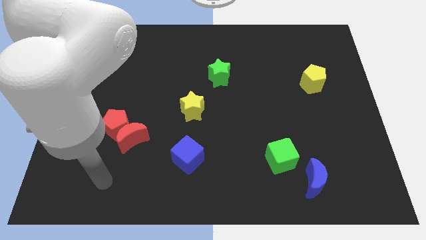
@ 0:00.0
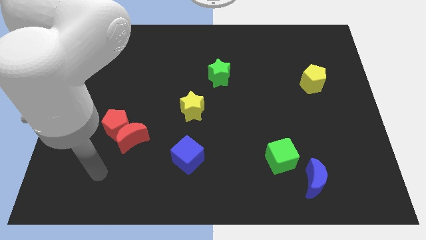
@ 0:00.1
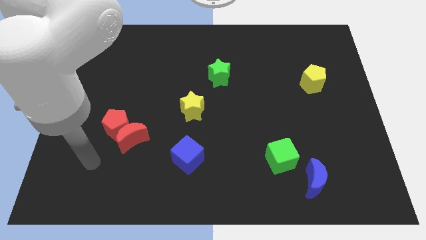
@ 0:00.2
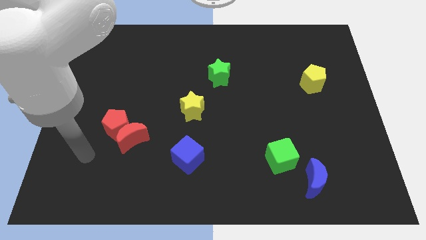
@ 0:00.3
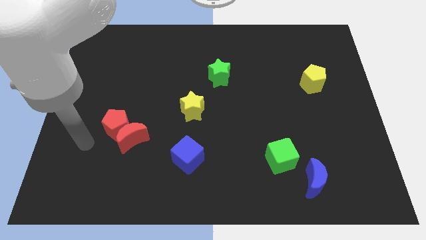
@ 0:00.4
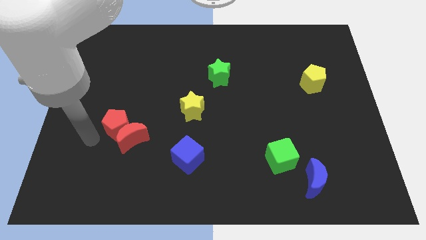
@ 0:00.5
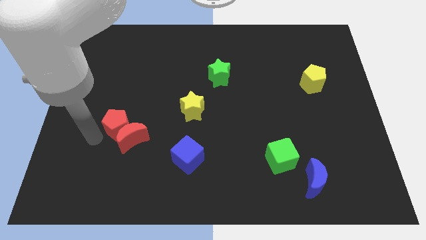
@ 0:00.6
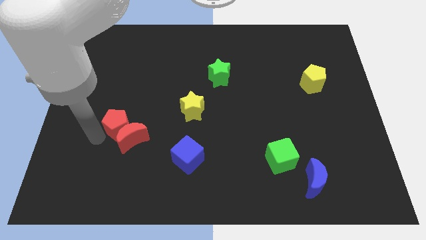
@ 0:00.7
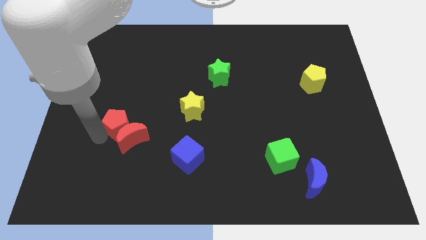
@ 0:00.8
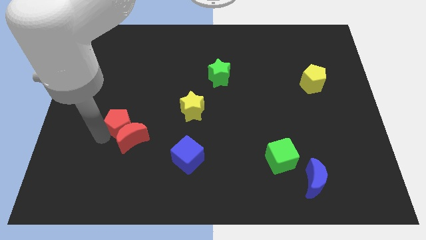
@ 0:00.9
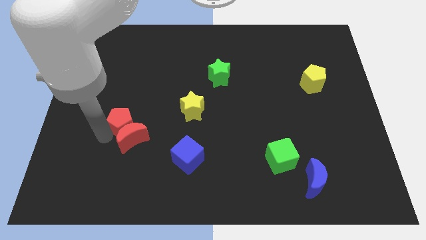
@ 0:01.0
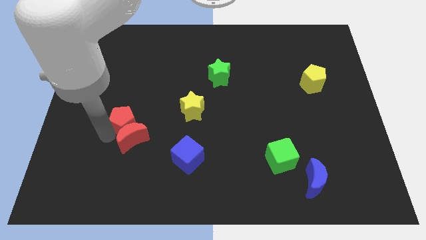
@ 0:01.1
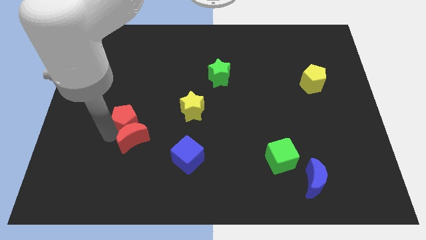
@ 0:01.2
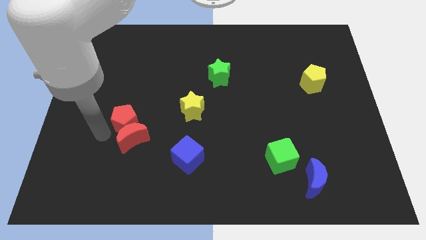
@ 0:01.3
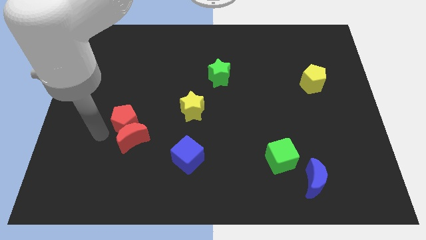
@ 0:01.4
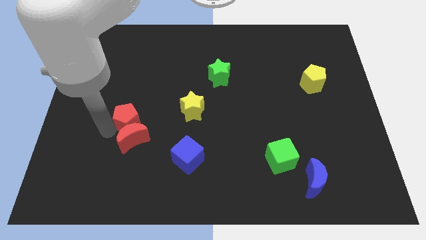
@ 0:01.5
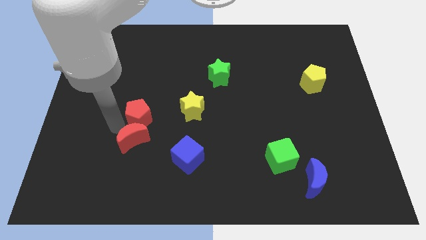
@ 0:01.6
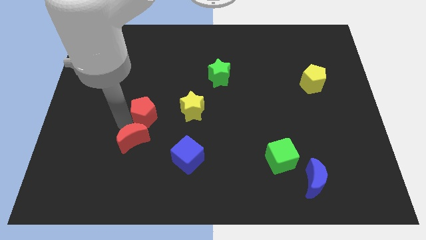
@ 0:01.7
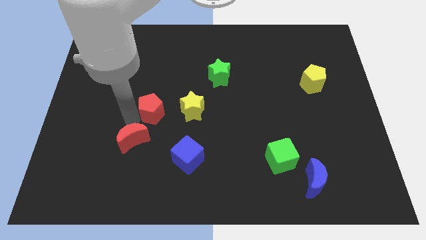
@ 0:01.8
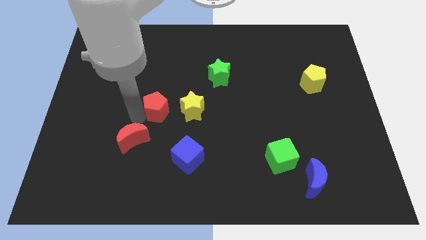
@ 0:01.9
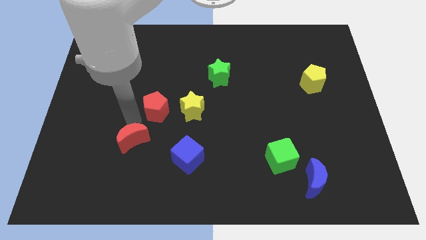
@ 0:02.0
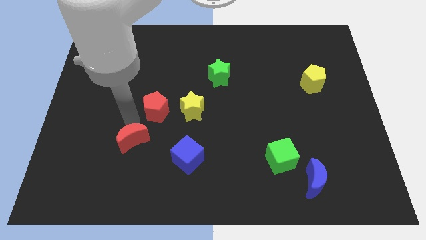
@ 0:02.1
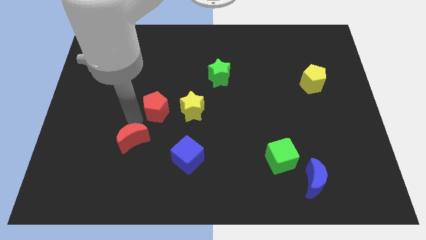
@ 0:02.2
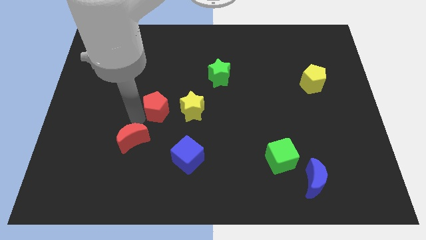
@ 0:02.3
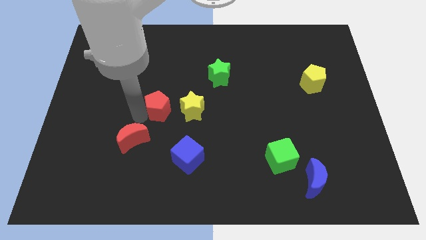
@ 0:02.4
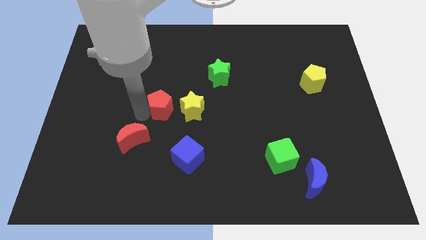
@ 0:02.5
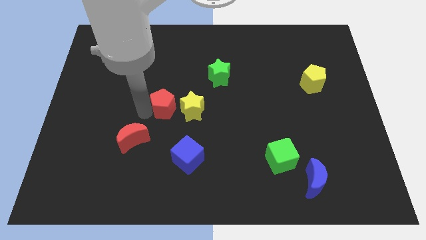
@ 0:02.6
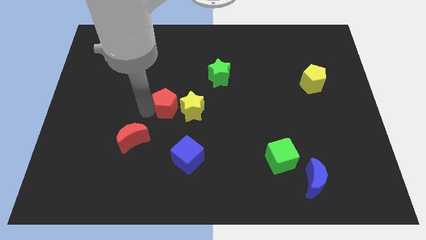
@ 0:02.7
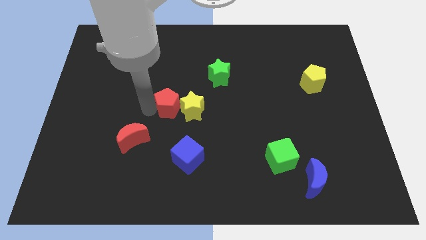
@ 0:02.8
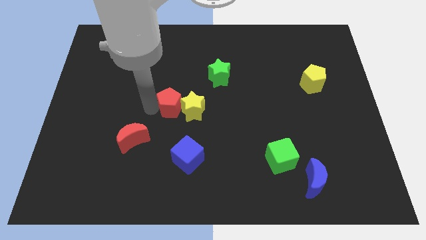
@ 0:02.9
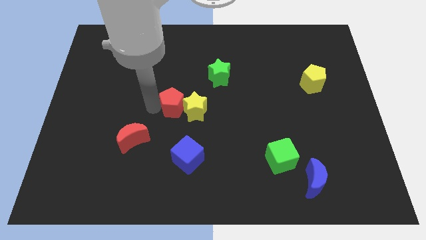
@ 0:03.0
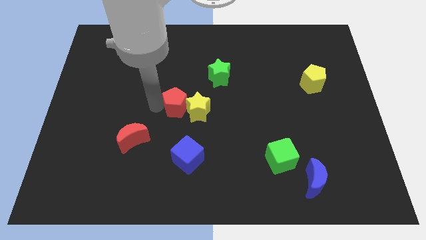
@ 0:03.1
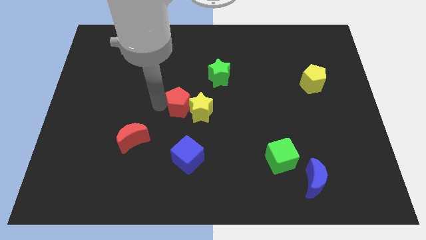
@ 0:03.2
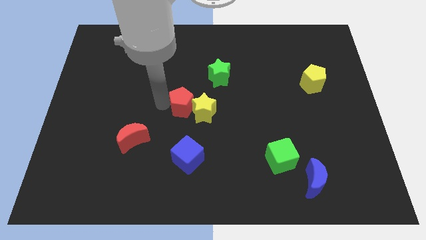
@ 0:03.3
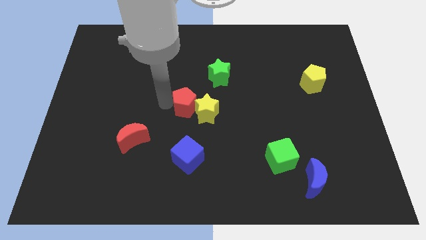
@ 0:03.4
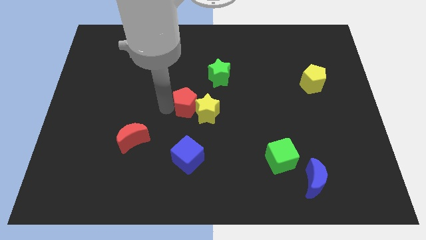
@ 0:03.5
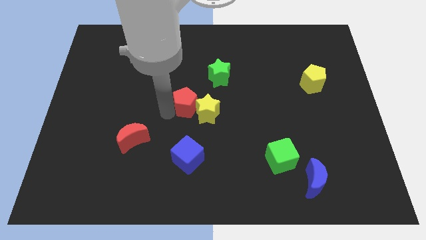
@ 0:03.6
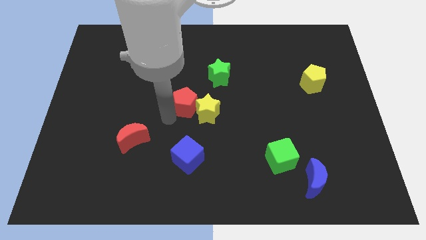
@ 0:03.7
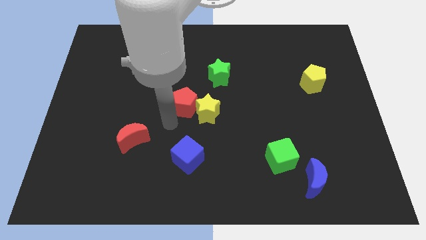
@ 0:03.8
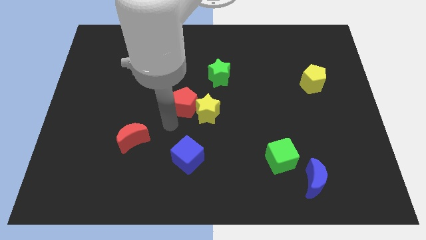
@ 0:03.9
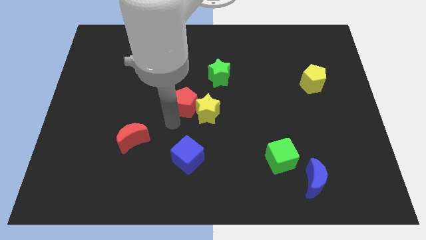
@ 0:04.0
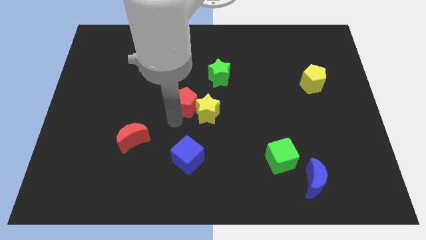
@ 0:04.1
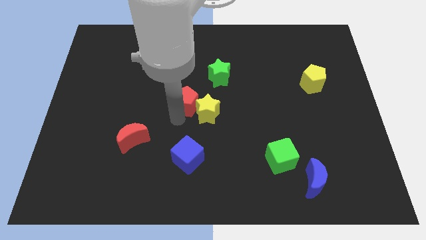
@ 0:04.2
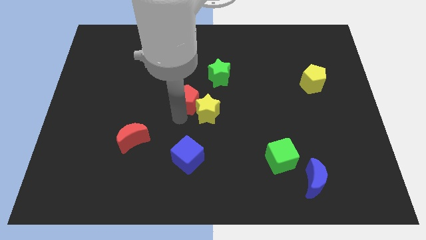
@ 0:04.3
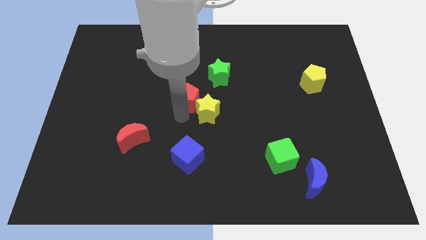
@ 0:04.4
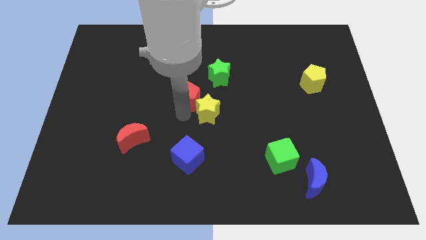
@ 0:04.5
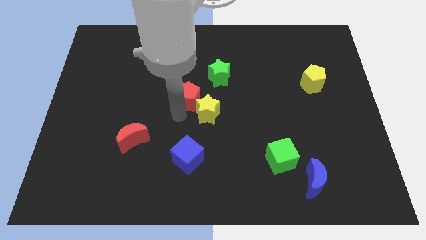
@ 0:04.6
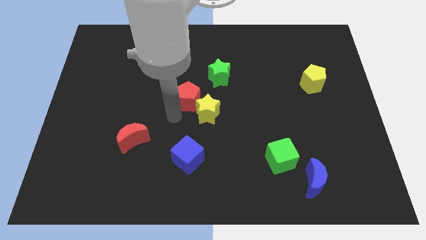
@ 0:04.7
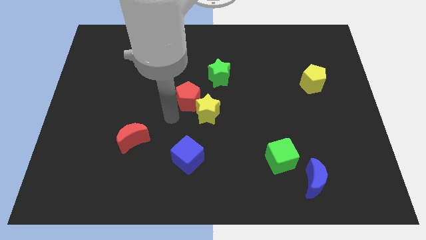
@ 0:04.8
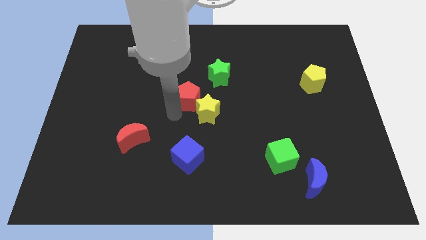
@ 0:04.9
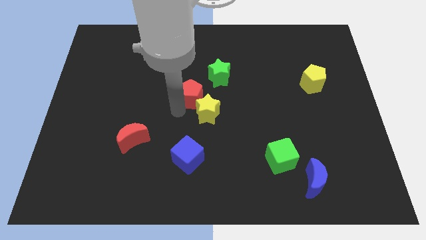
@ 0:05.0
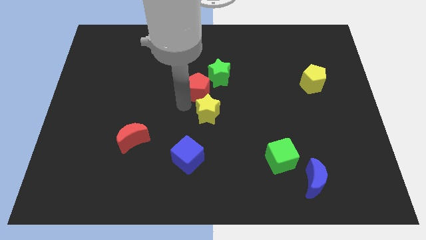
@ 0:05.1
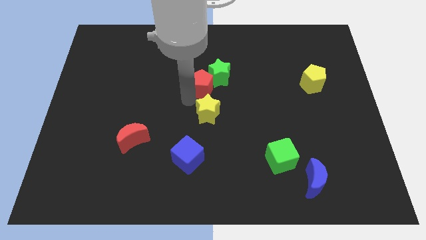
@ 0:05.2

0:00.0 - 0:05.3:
put the red pentagon next to the green star

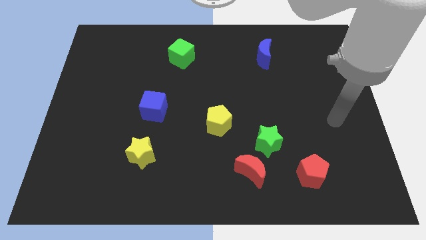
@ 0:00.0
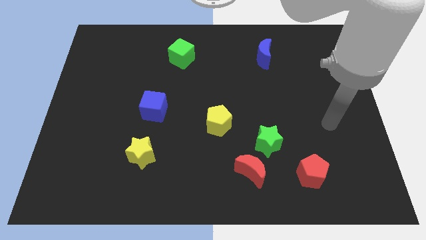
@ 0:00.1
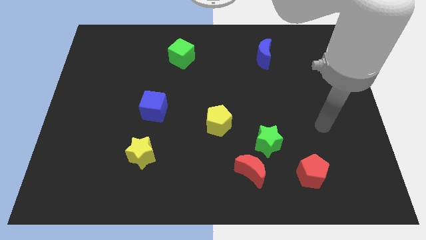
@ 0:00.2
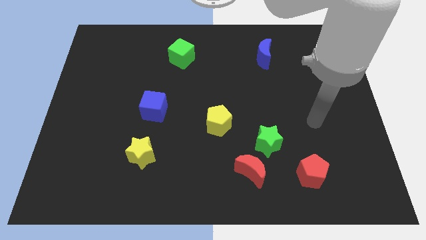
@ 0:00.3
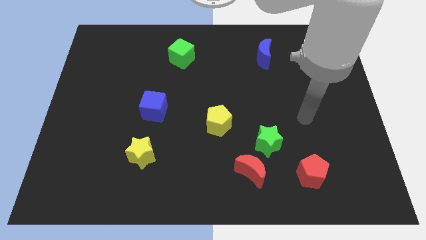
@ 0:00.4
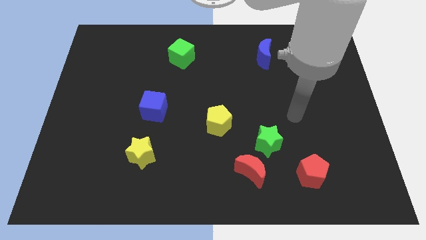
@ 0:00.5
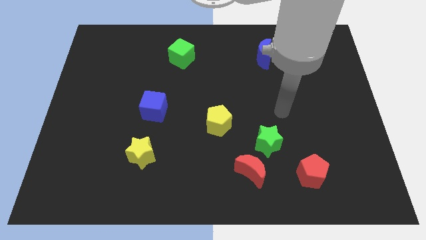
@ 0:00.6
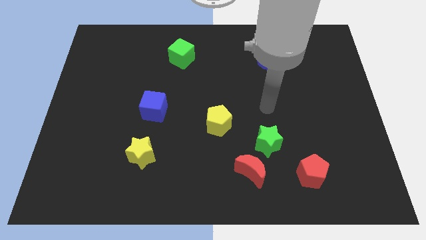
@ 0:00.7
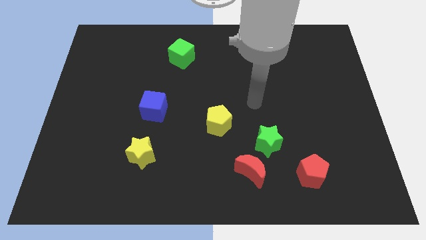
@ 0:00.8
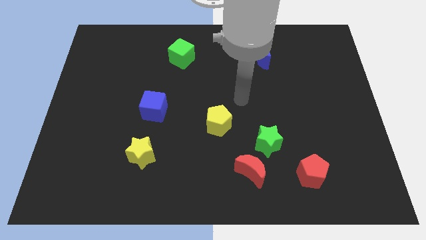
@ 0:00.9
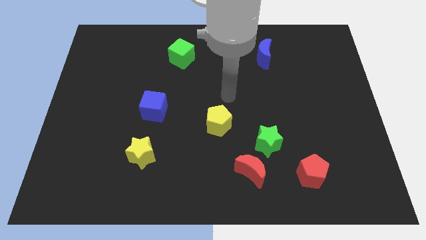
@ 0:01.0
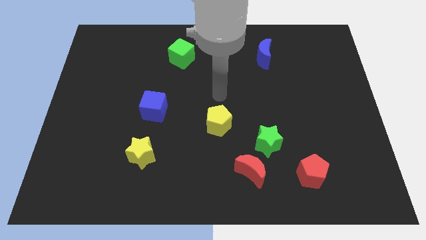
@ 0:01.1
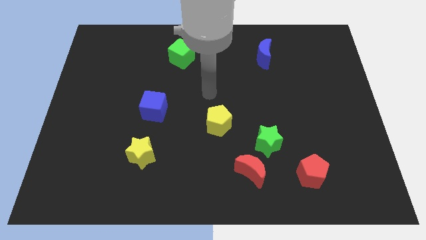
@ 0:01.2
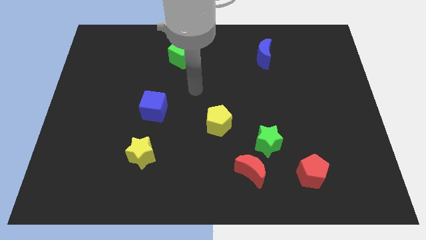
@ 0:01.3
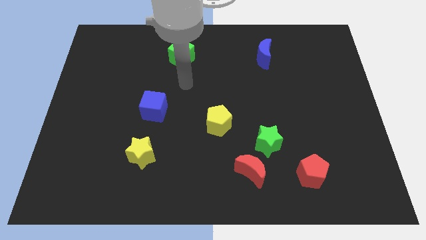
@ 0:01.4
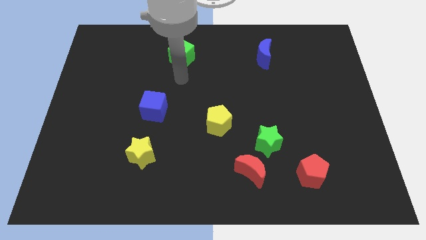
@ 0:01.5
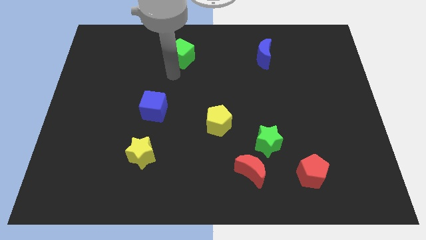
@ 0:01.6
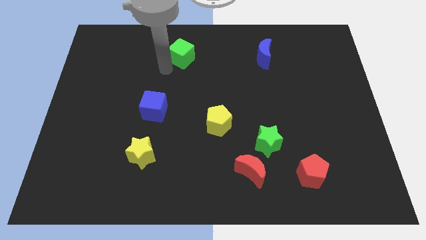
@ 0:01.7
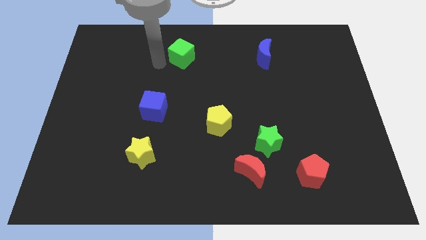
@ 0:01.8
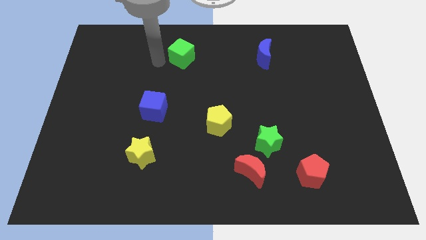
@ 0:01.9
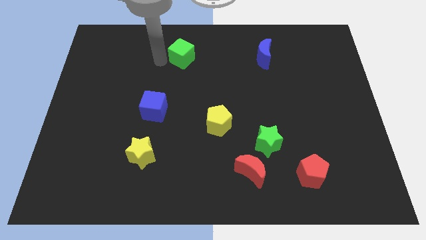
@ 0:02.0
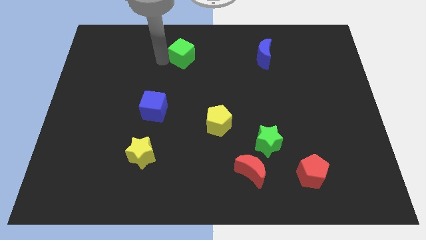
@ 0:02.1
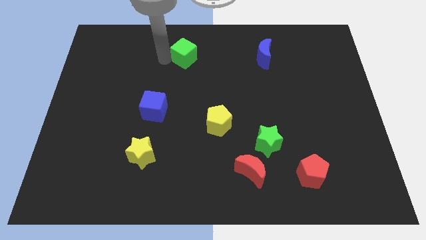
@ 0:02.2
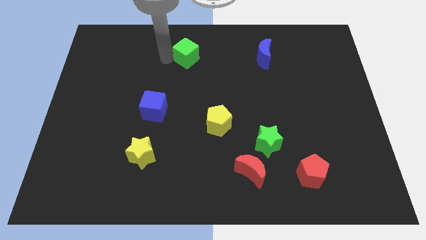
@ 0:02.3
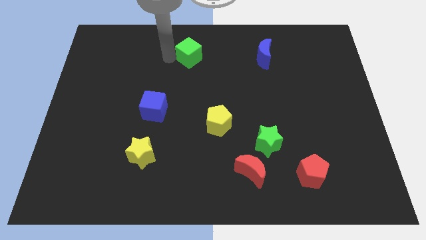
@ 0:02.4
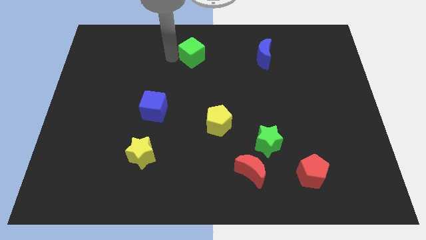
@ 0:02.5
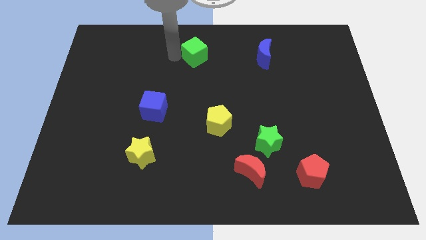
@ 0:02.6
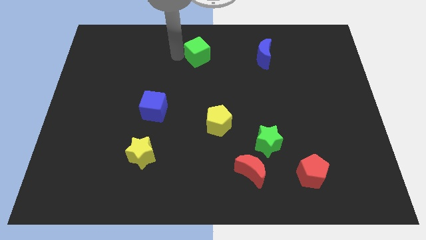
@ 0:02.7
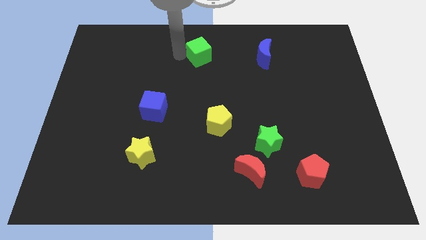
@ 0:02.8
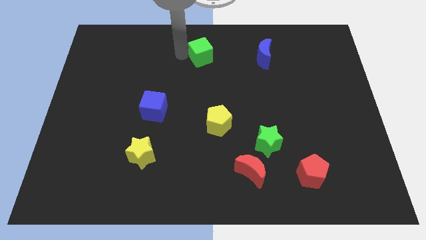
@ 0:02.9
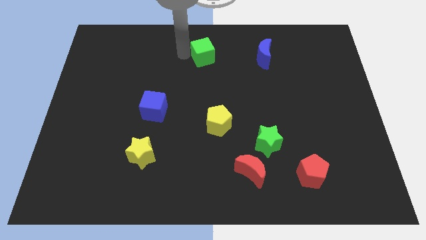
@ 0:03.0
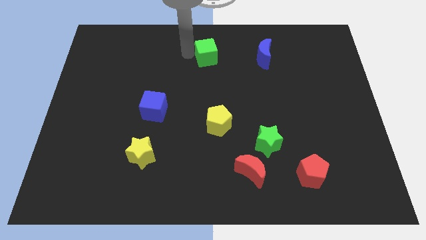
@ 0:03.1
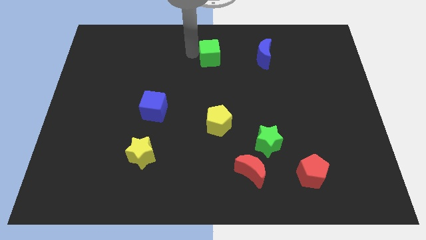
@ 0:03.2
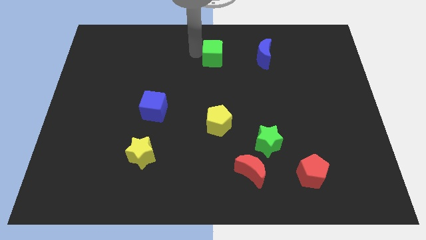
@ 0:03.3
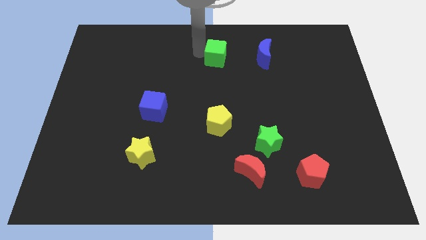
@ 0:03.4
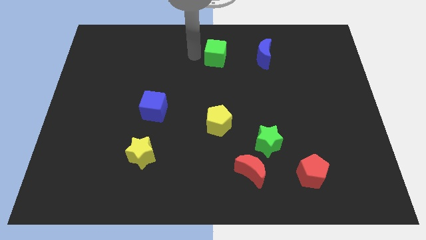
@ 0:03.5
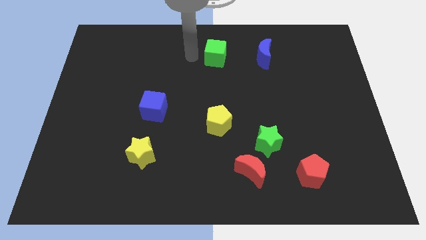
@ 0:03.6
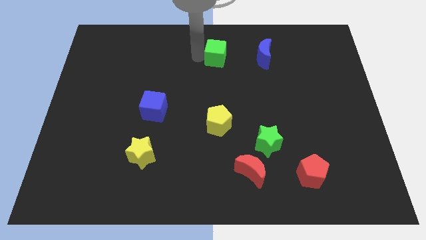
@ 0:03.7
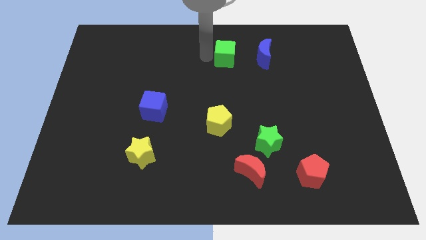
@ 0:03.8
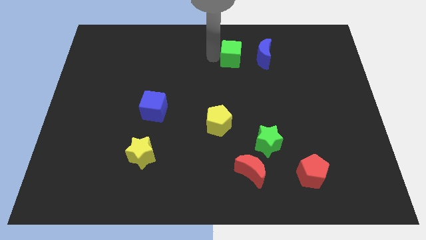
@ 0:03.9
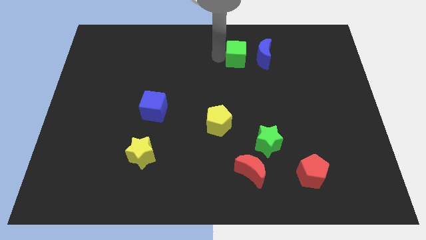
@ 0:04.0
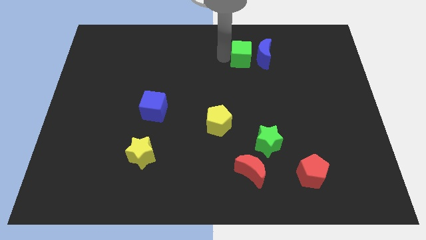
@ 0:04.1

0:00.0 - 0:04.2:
slide the green cube close to the blue moon
